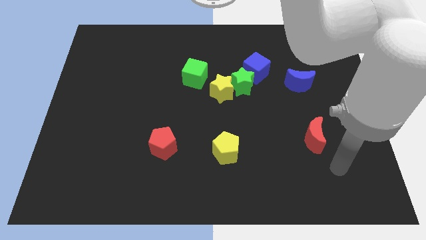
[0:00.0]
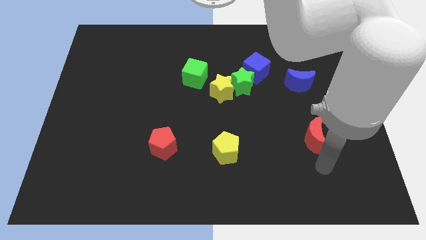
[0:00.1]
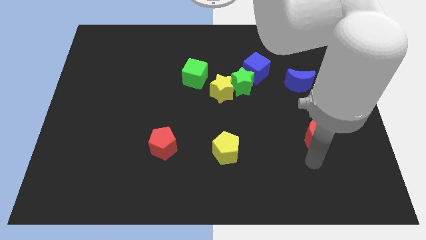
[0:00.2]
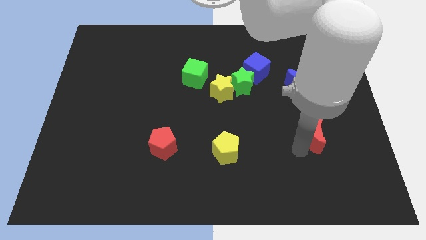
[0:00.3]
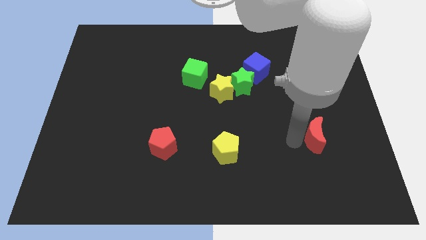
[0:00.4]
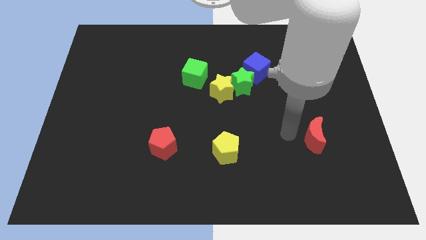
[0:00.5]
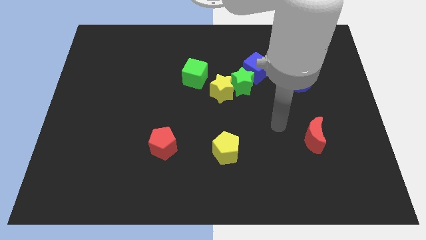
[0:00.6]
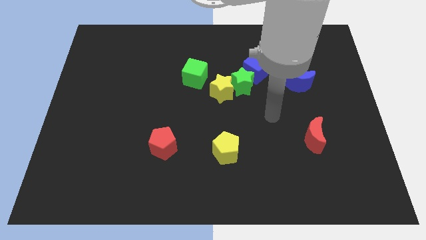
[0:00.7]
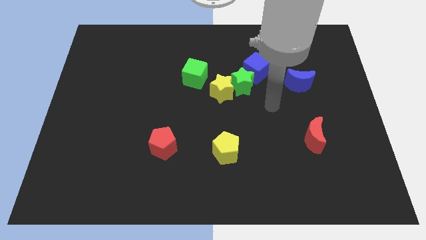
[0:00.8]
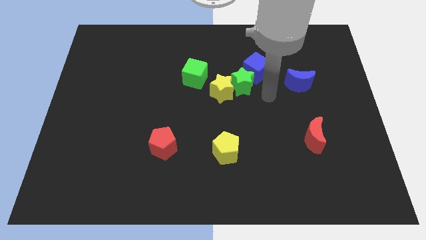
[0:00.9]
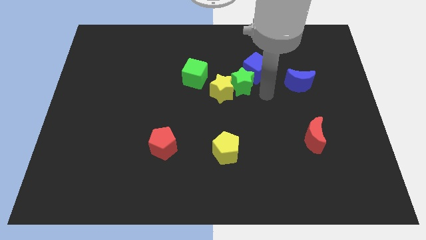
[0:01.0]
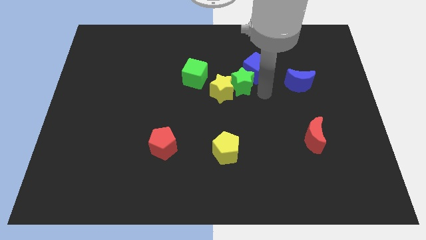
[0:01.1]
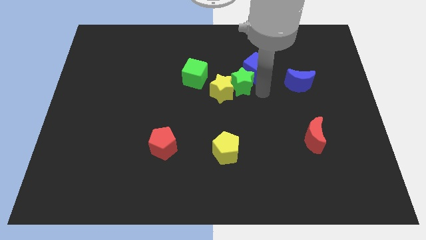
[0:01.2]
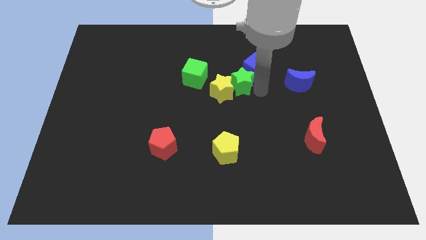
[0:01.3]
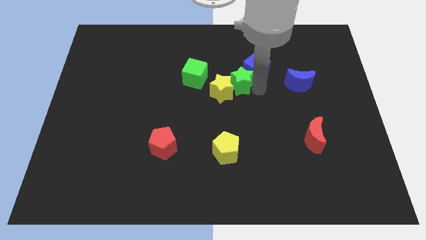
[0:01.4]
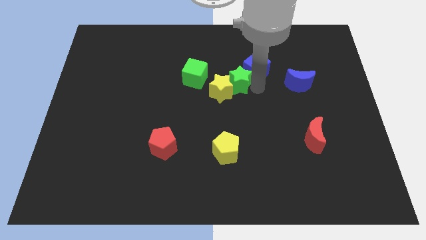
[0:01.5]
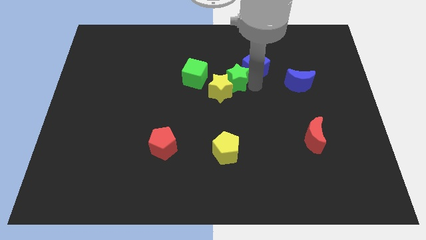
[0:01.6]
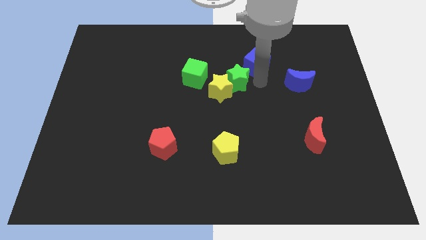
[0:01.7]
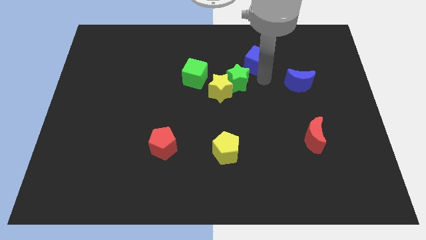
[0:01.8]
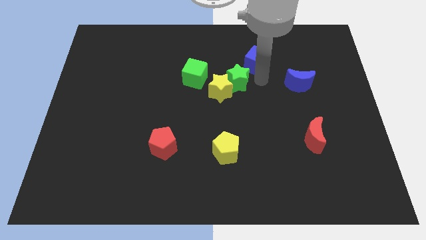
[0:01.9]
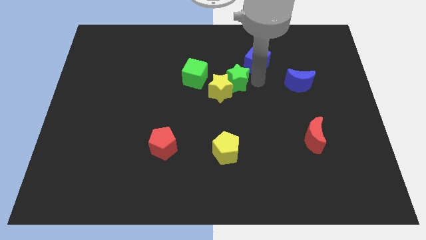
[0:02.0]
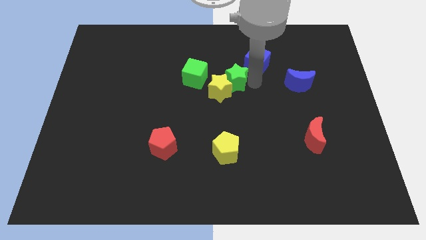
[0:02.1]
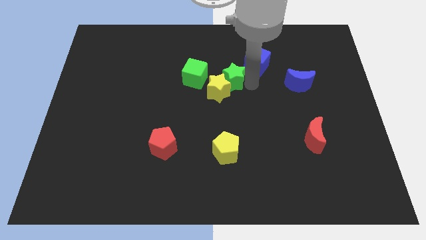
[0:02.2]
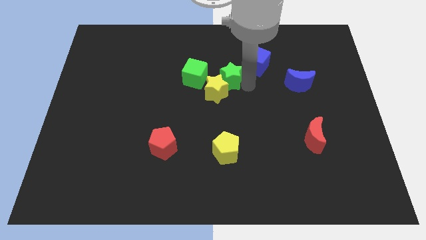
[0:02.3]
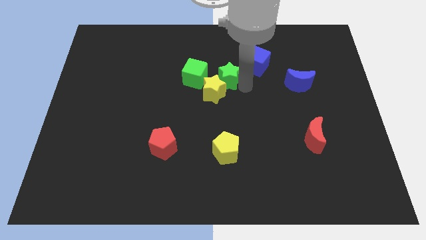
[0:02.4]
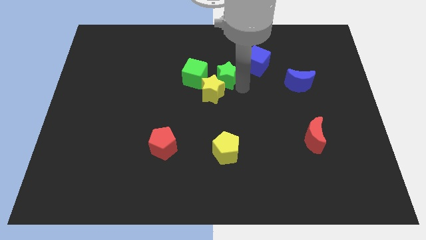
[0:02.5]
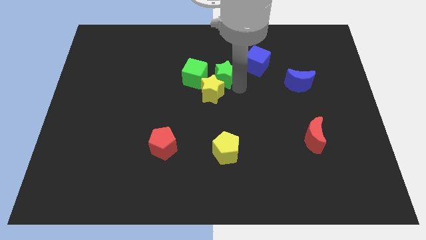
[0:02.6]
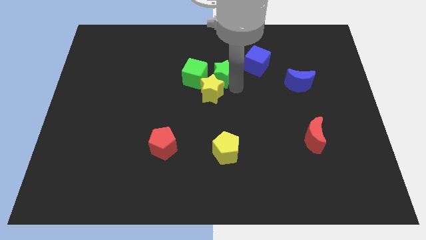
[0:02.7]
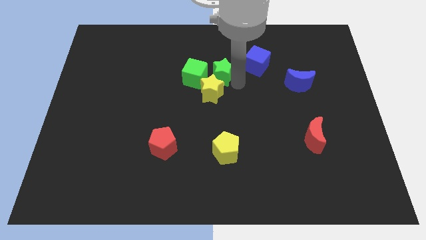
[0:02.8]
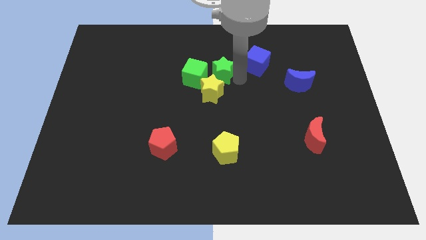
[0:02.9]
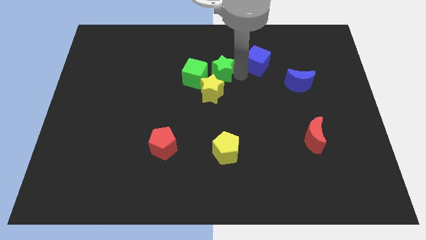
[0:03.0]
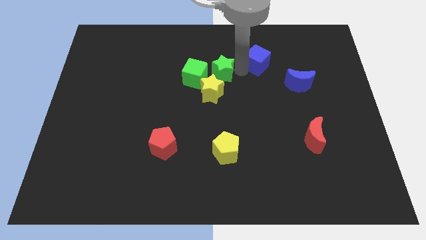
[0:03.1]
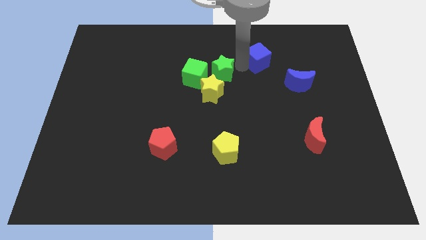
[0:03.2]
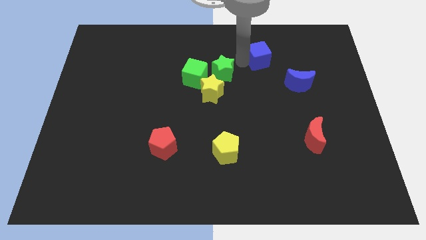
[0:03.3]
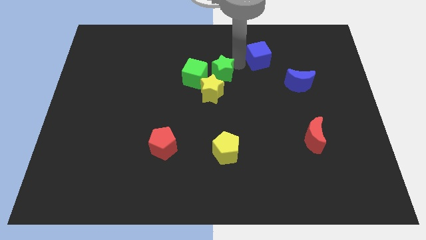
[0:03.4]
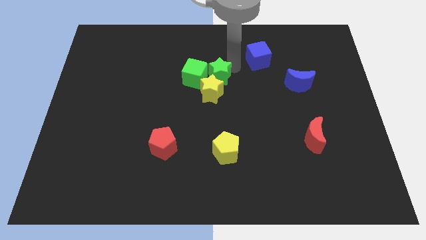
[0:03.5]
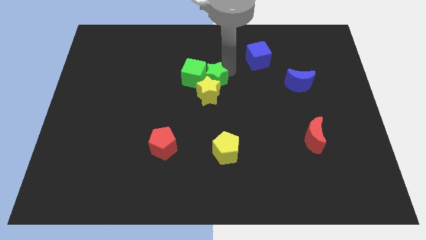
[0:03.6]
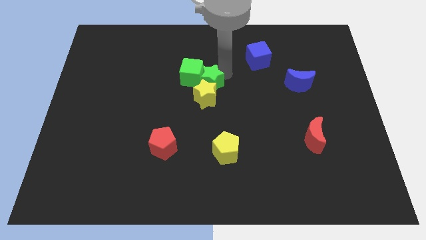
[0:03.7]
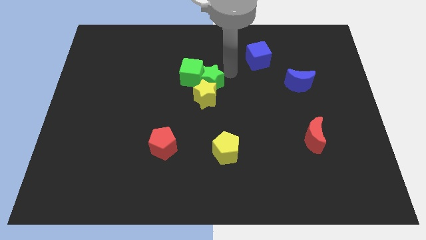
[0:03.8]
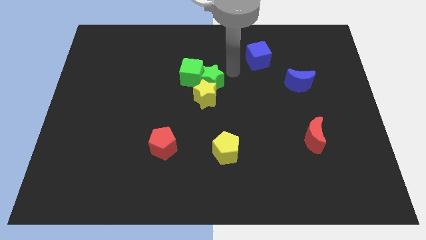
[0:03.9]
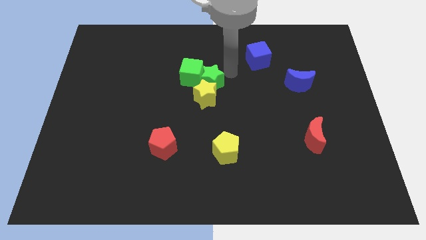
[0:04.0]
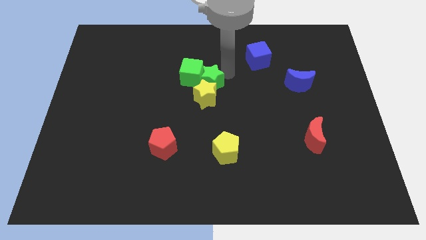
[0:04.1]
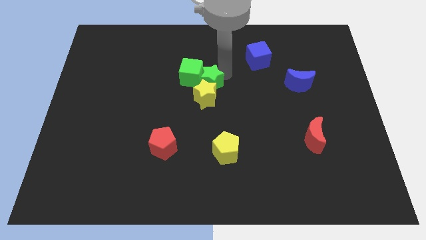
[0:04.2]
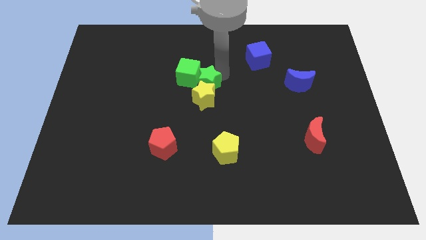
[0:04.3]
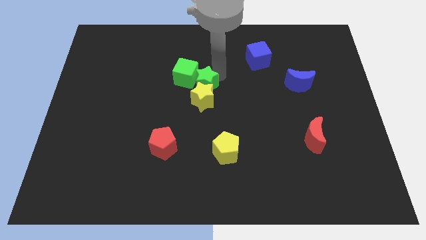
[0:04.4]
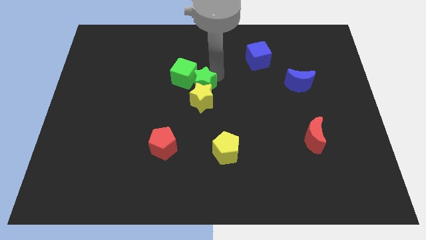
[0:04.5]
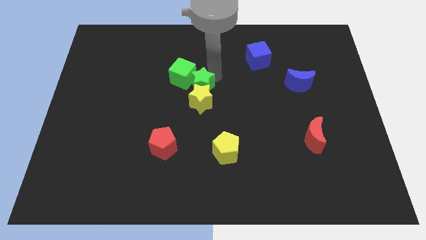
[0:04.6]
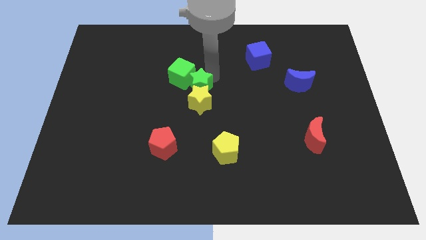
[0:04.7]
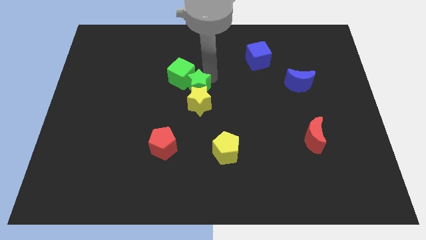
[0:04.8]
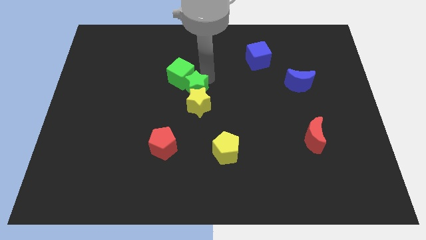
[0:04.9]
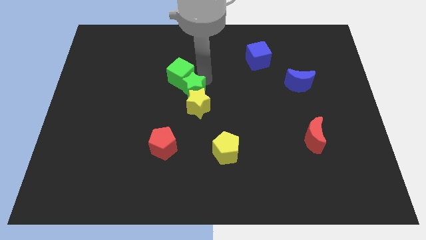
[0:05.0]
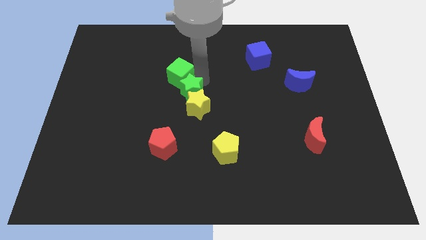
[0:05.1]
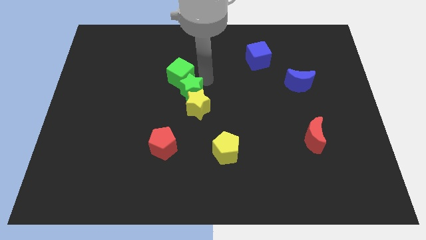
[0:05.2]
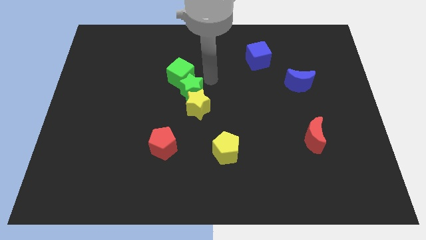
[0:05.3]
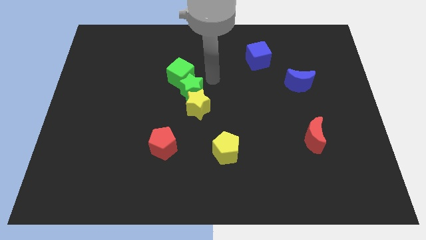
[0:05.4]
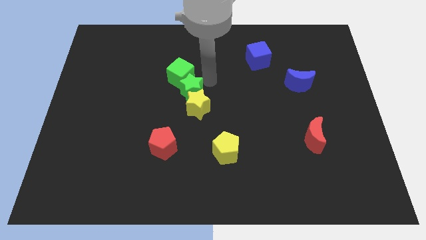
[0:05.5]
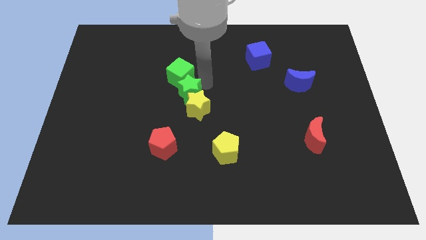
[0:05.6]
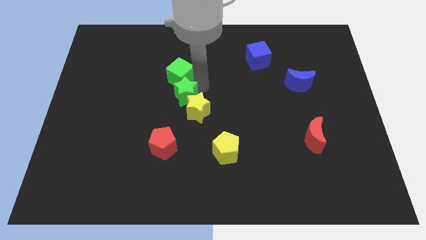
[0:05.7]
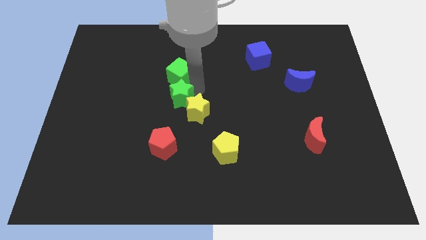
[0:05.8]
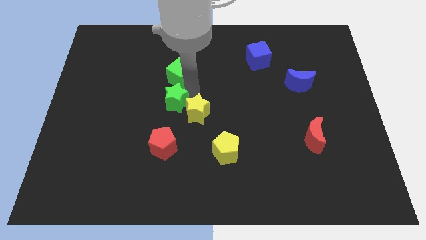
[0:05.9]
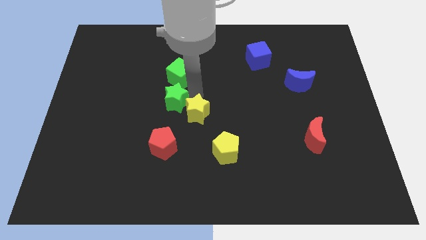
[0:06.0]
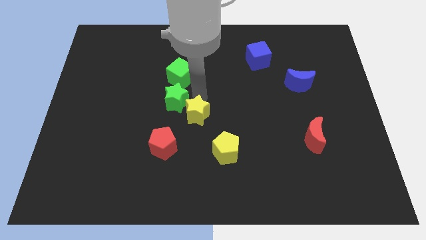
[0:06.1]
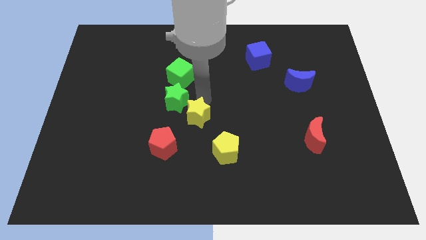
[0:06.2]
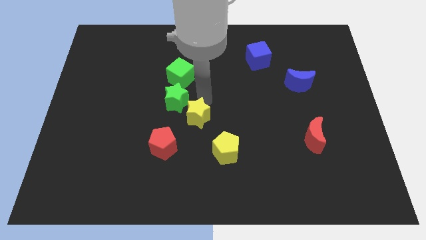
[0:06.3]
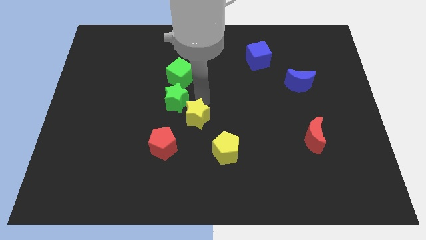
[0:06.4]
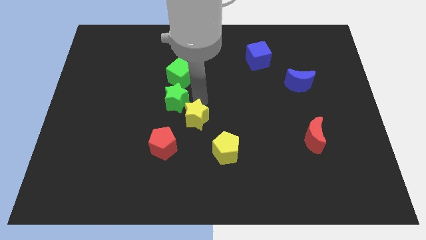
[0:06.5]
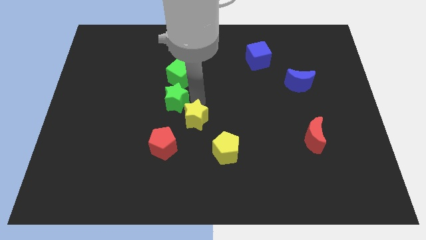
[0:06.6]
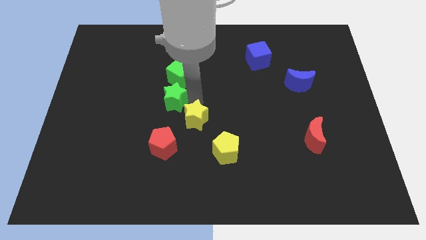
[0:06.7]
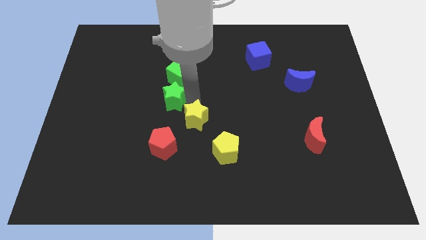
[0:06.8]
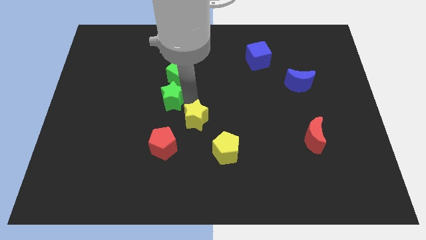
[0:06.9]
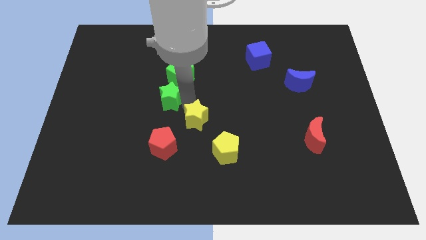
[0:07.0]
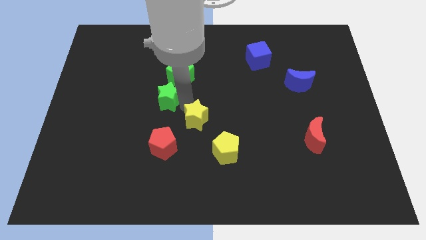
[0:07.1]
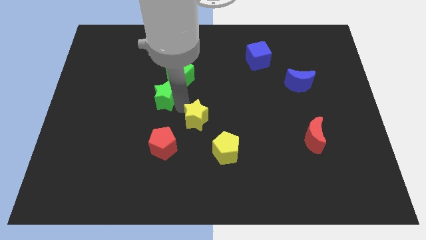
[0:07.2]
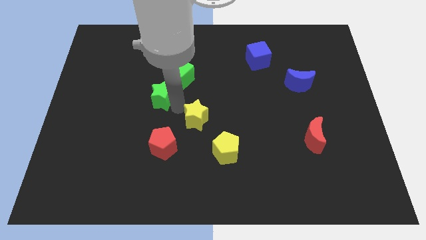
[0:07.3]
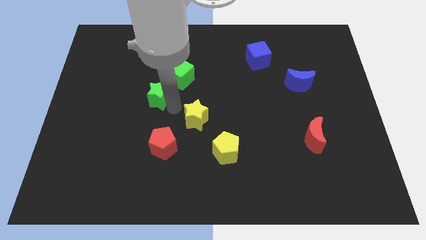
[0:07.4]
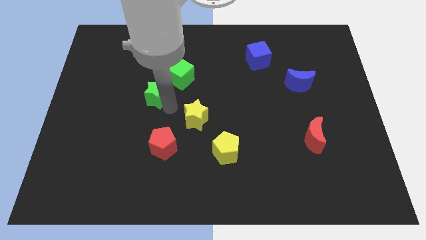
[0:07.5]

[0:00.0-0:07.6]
push the green star left

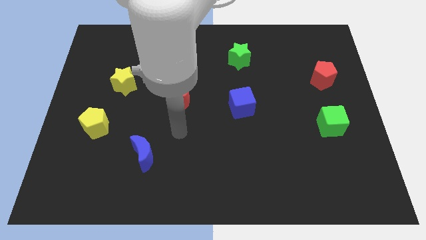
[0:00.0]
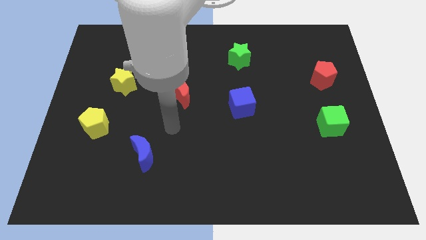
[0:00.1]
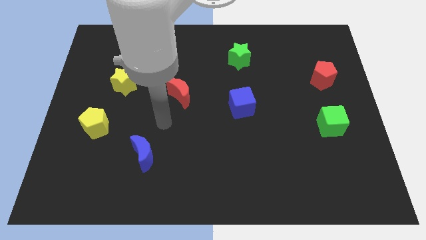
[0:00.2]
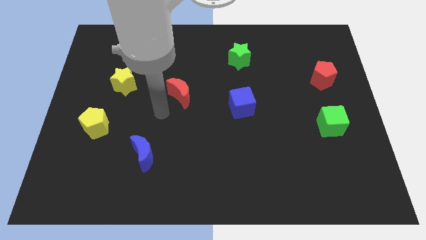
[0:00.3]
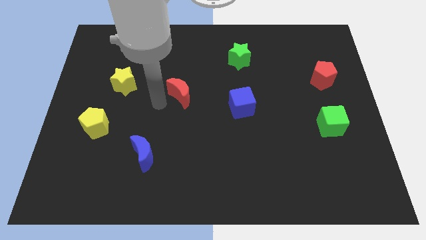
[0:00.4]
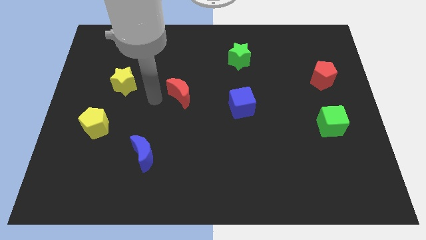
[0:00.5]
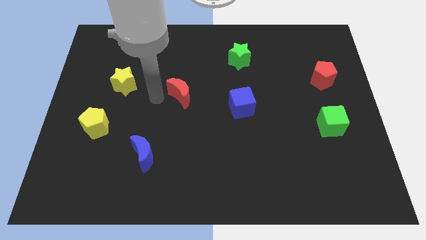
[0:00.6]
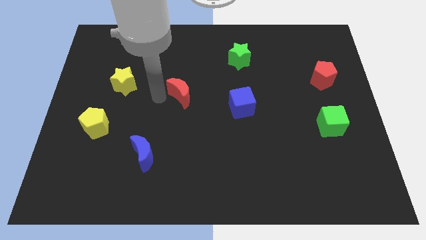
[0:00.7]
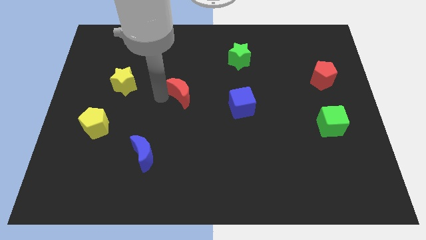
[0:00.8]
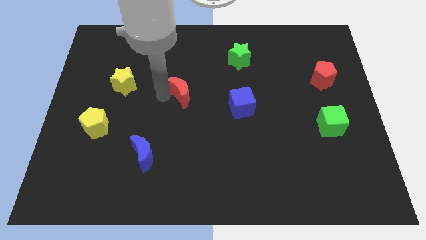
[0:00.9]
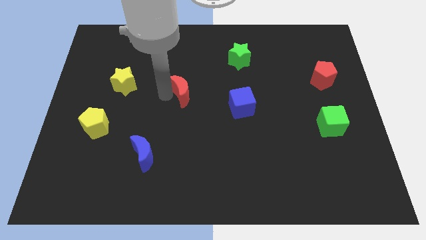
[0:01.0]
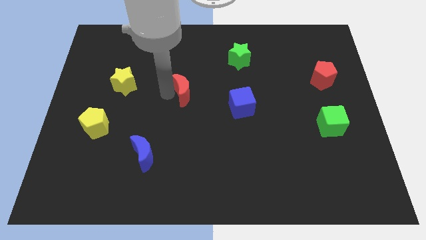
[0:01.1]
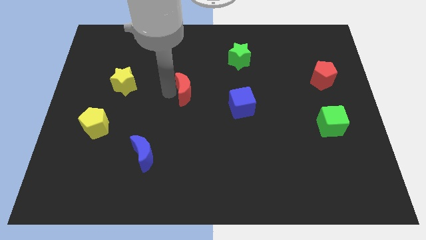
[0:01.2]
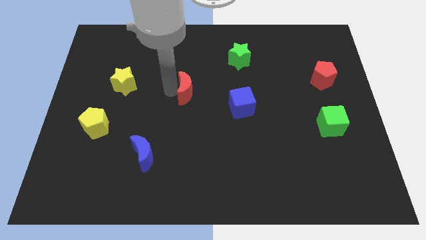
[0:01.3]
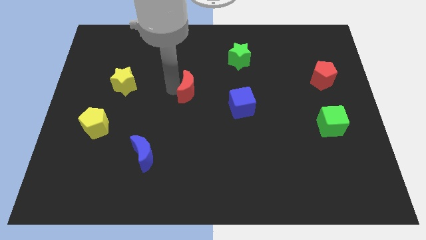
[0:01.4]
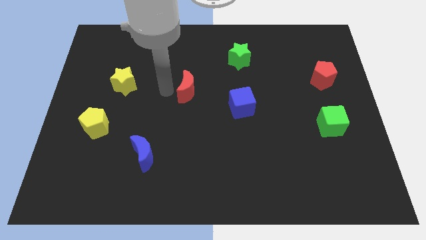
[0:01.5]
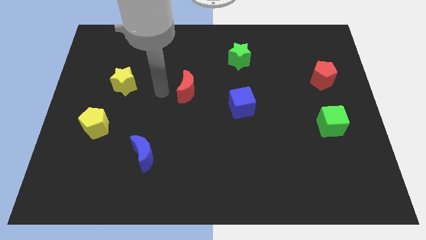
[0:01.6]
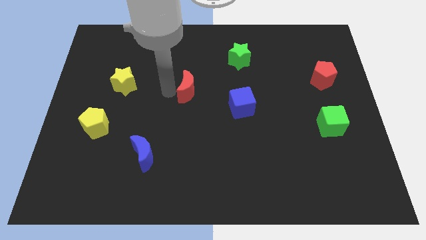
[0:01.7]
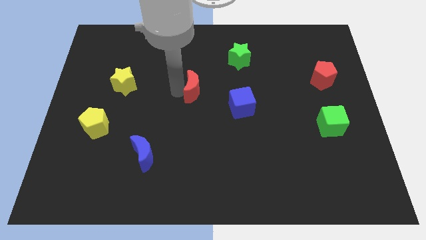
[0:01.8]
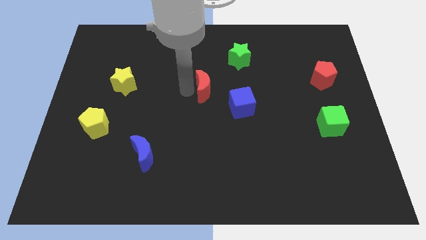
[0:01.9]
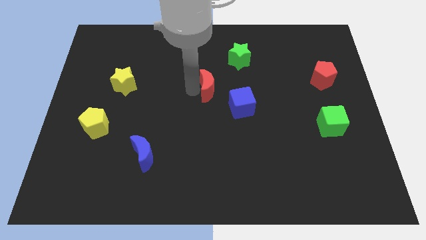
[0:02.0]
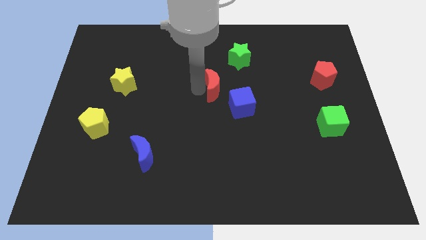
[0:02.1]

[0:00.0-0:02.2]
slightly move the red moon right
